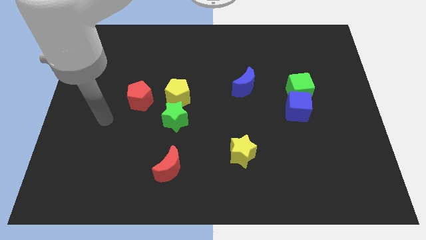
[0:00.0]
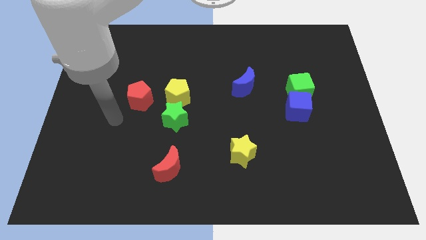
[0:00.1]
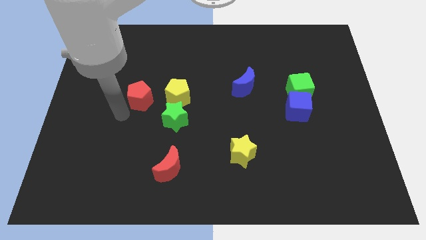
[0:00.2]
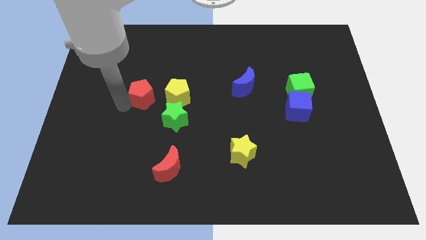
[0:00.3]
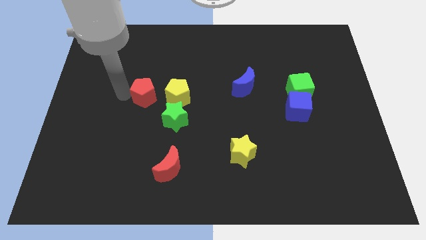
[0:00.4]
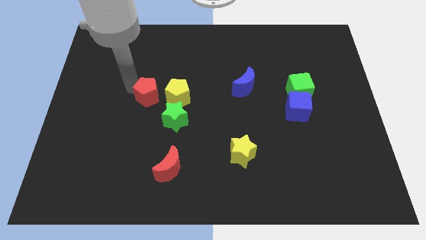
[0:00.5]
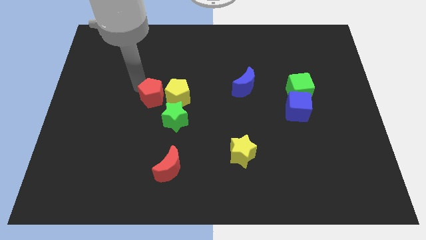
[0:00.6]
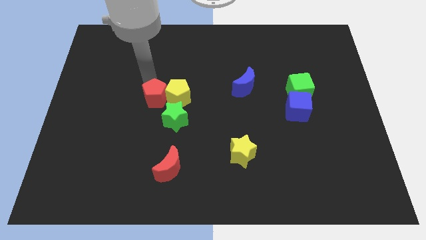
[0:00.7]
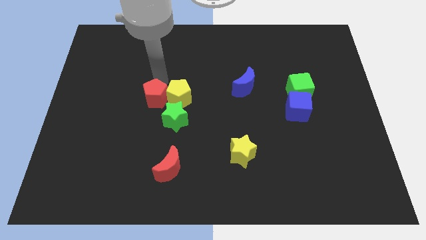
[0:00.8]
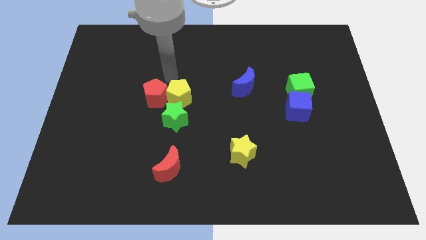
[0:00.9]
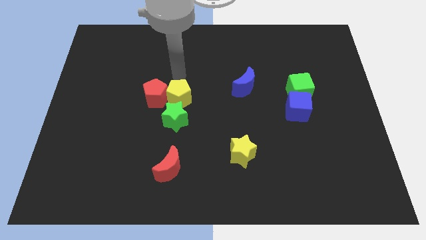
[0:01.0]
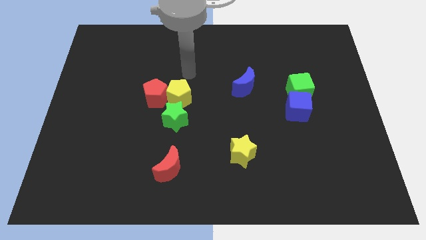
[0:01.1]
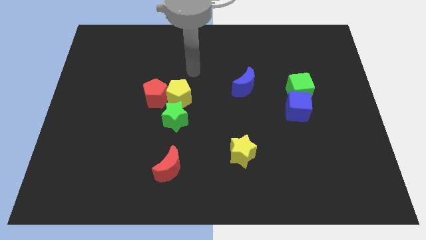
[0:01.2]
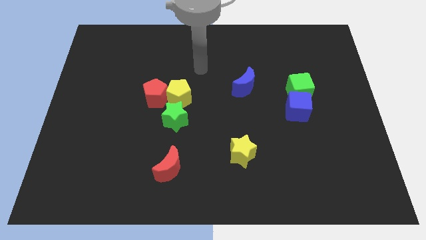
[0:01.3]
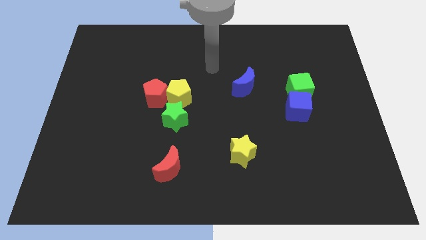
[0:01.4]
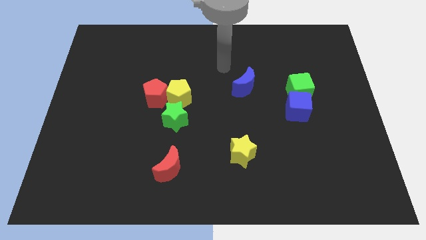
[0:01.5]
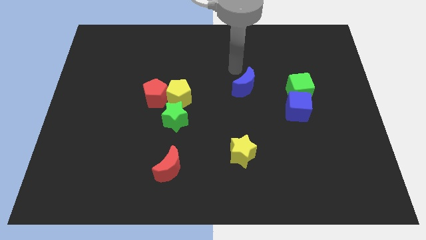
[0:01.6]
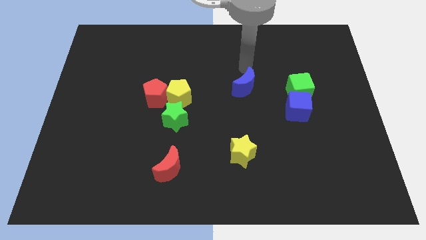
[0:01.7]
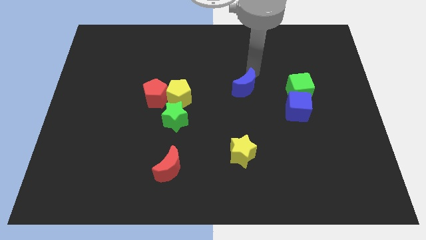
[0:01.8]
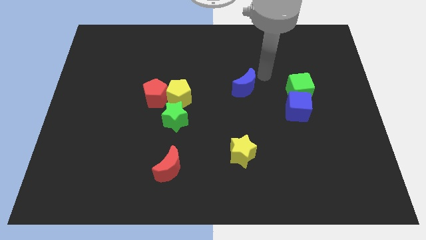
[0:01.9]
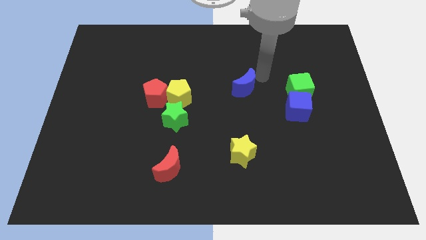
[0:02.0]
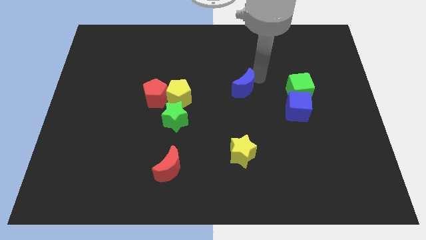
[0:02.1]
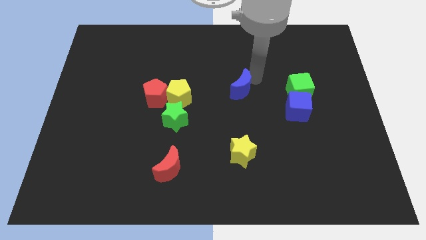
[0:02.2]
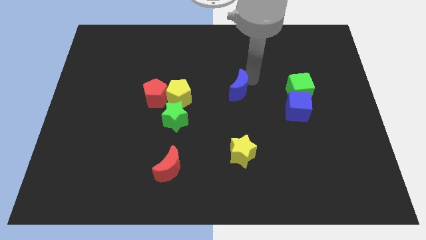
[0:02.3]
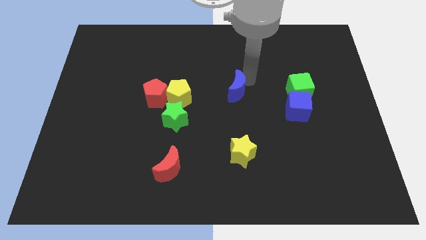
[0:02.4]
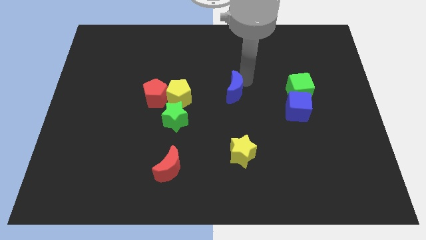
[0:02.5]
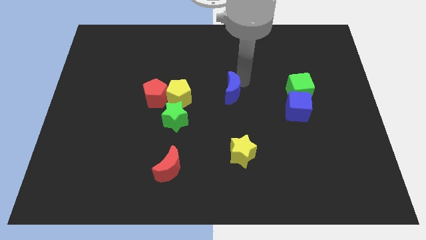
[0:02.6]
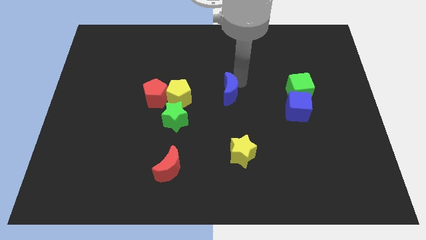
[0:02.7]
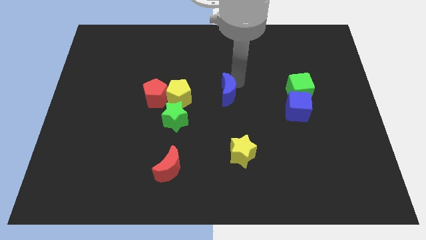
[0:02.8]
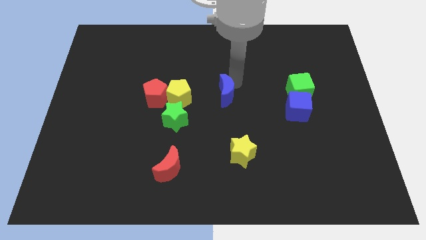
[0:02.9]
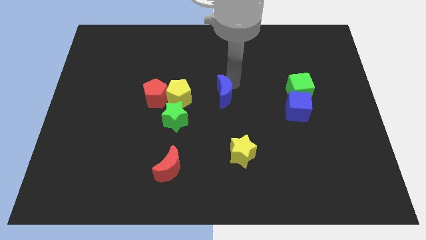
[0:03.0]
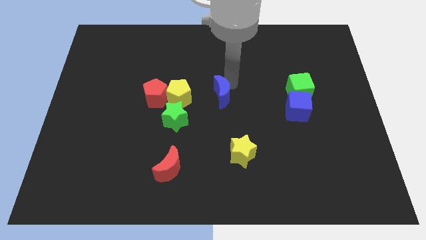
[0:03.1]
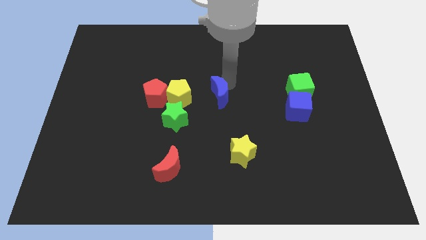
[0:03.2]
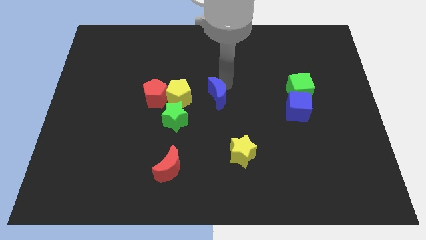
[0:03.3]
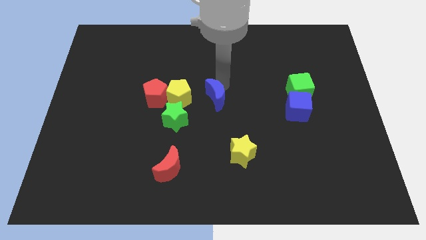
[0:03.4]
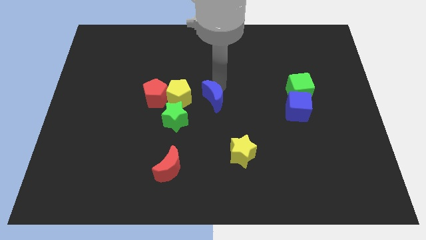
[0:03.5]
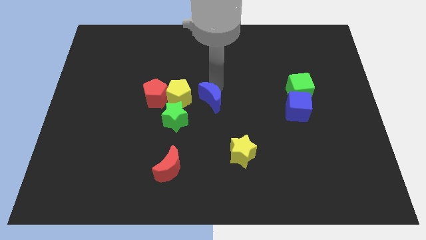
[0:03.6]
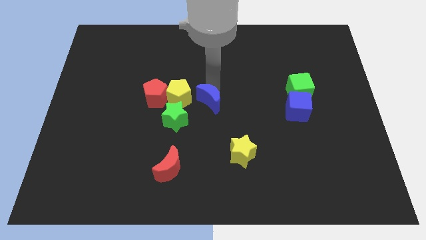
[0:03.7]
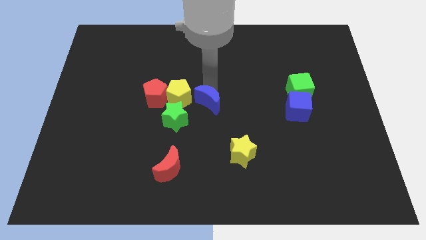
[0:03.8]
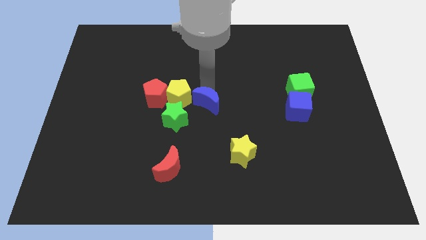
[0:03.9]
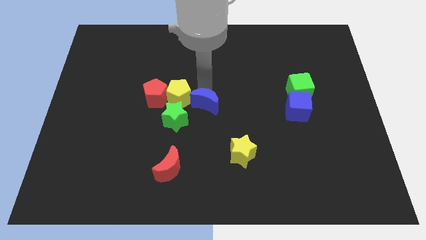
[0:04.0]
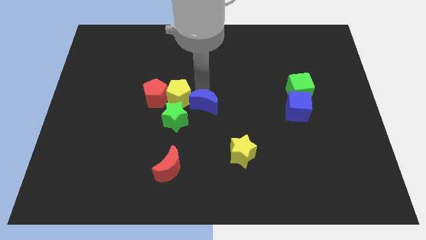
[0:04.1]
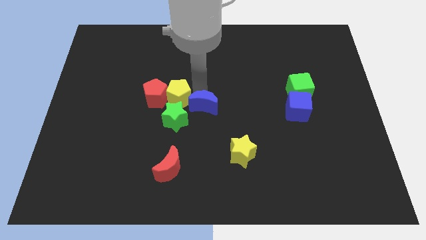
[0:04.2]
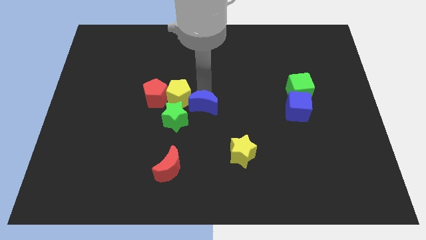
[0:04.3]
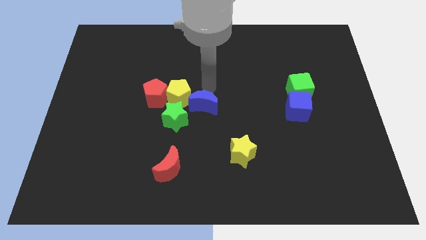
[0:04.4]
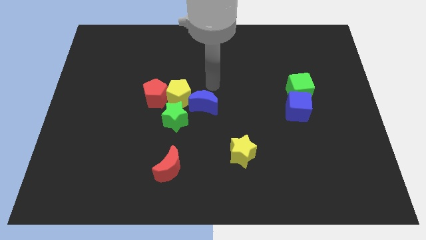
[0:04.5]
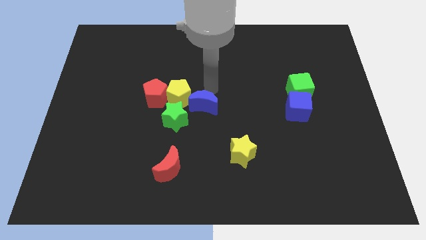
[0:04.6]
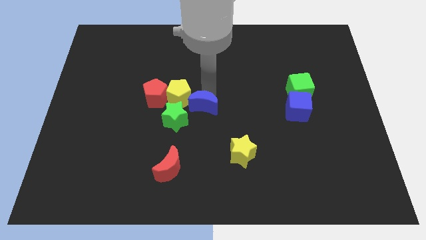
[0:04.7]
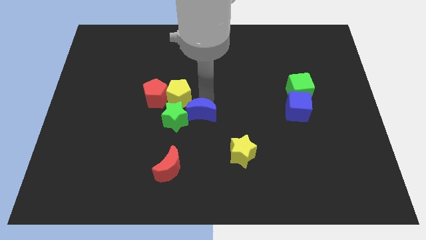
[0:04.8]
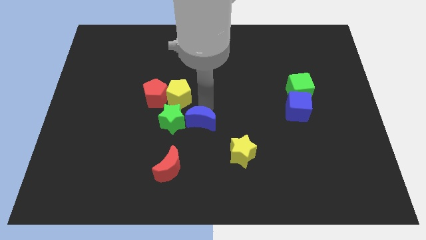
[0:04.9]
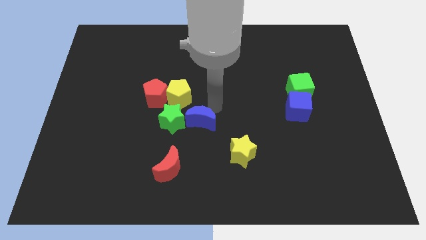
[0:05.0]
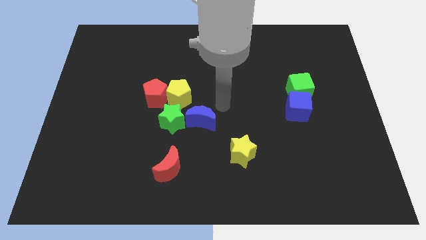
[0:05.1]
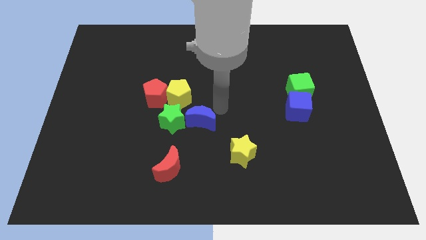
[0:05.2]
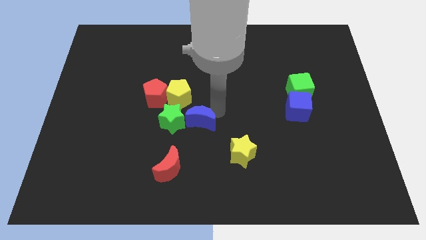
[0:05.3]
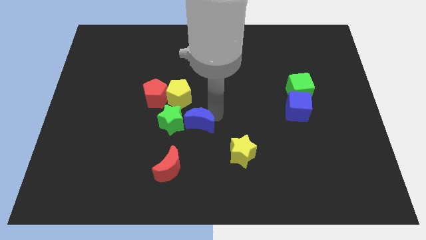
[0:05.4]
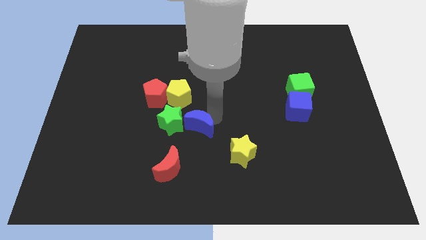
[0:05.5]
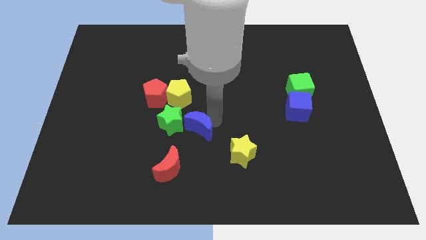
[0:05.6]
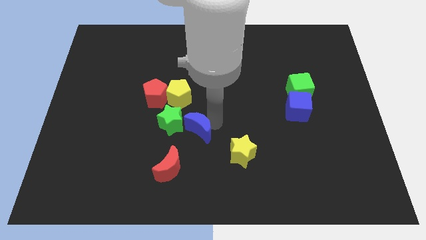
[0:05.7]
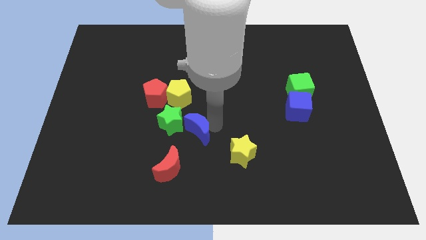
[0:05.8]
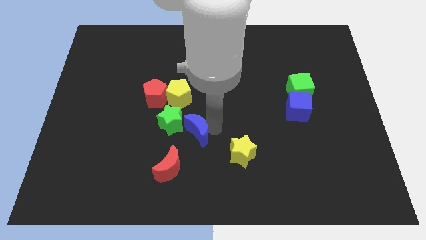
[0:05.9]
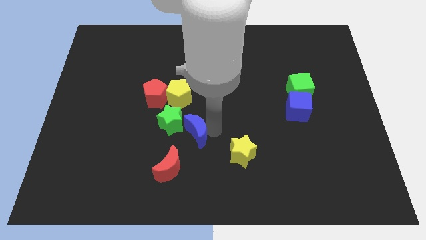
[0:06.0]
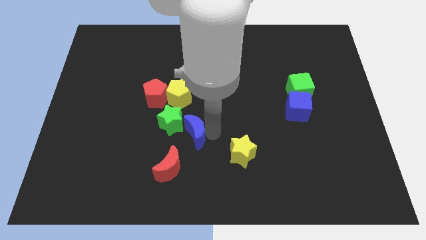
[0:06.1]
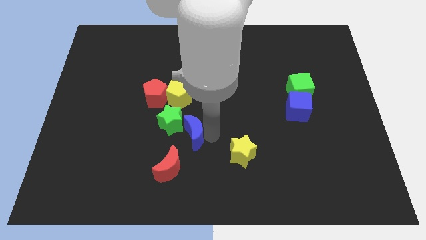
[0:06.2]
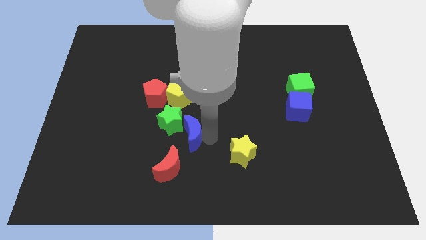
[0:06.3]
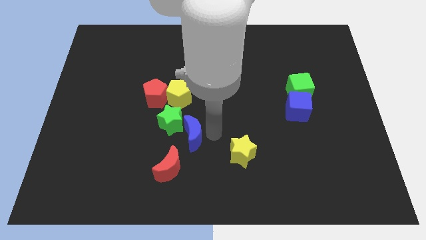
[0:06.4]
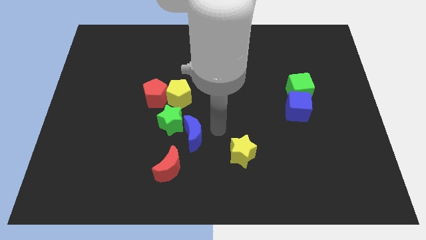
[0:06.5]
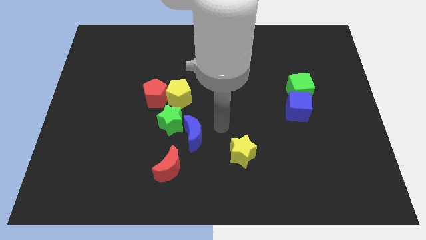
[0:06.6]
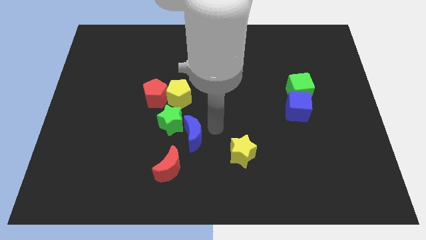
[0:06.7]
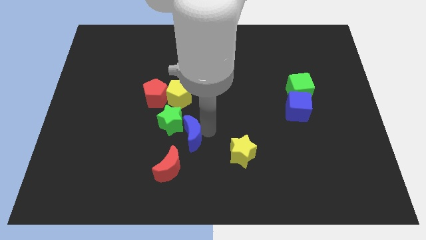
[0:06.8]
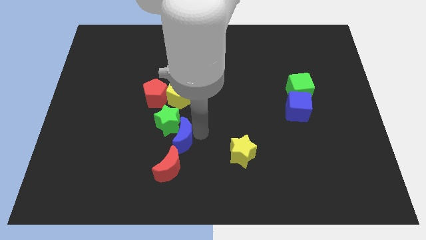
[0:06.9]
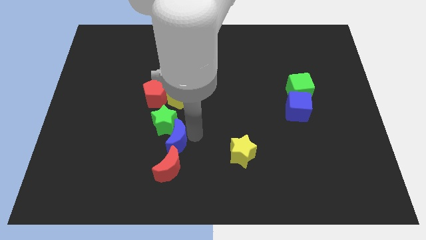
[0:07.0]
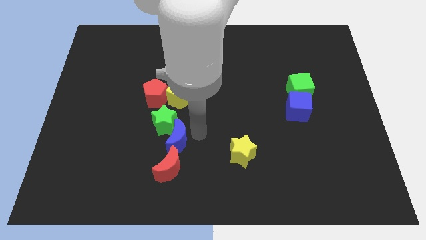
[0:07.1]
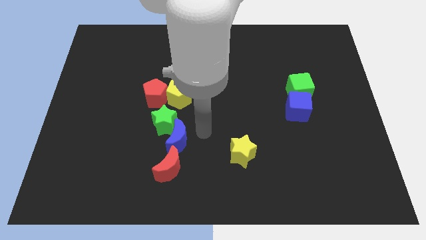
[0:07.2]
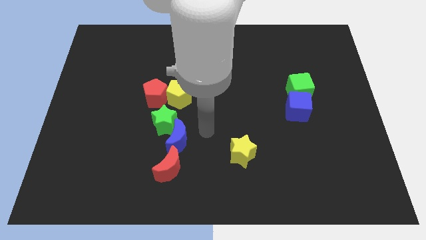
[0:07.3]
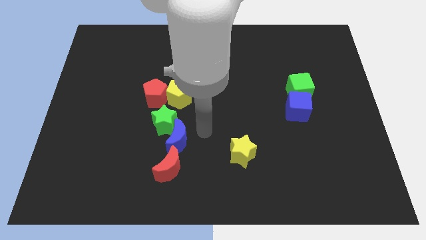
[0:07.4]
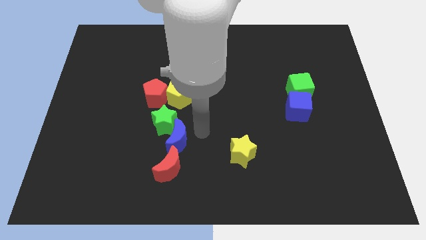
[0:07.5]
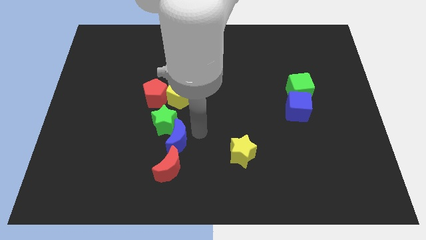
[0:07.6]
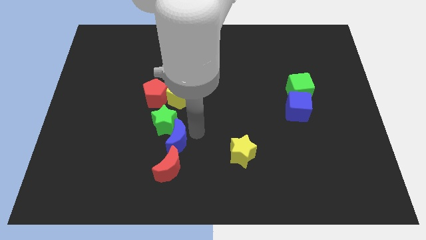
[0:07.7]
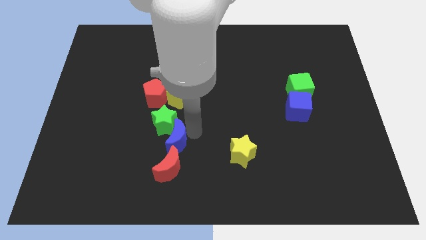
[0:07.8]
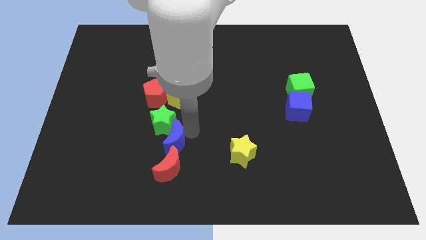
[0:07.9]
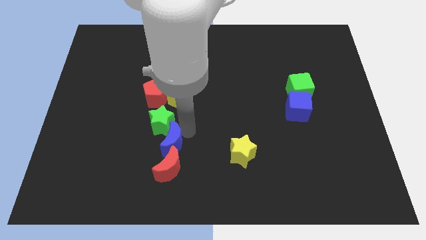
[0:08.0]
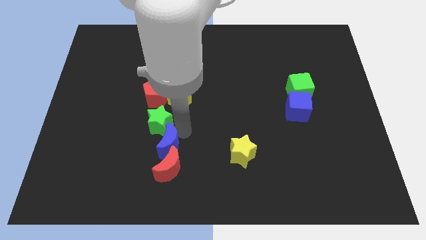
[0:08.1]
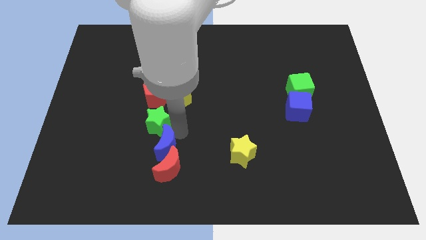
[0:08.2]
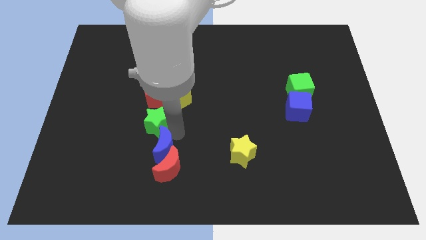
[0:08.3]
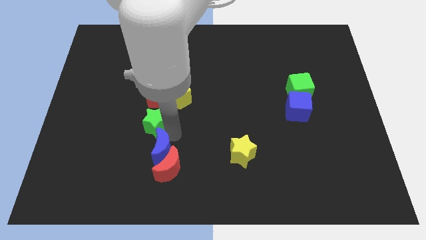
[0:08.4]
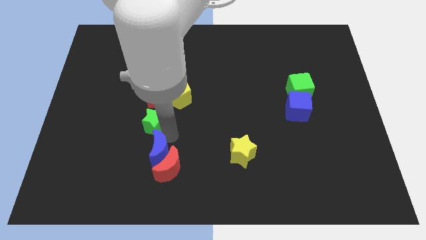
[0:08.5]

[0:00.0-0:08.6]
push the blue moon just left of the red moon
